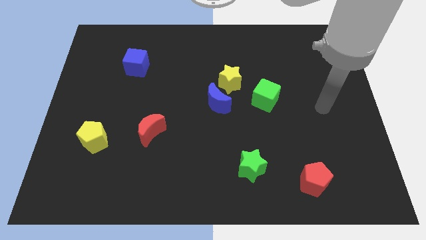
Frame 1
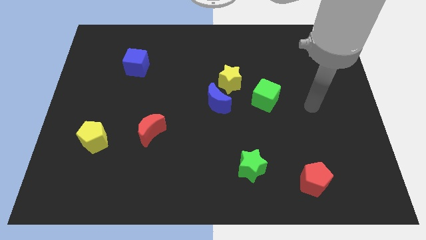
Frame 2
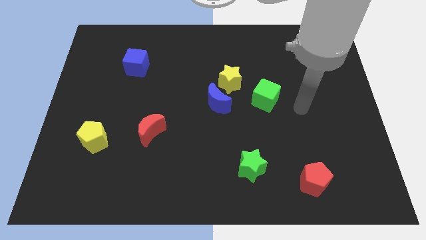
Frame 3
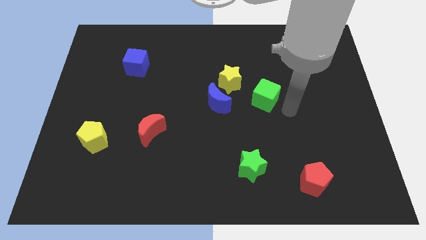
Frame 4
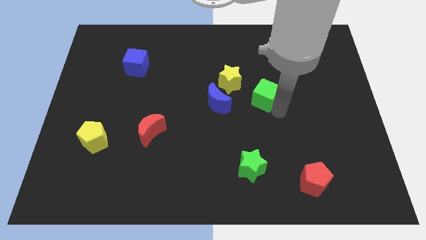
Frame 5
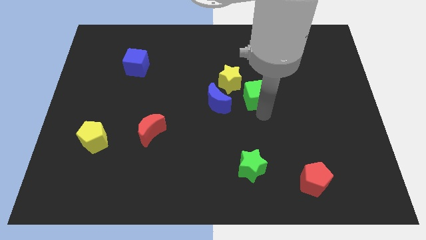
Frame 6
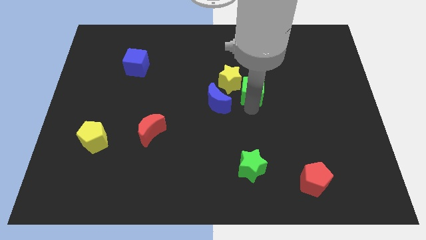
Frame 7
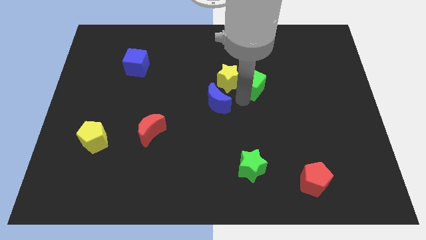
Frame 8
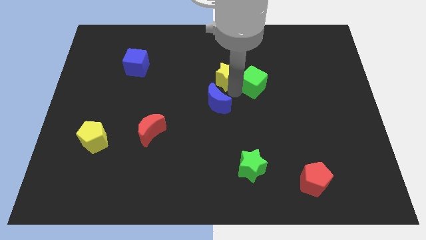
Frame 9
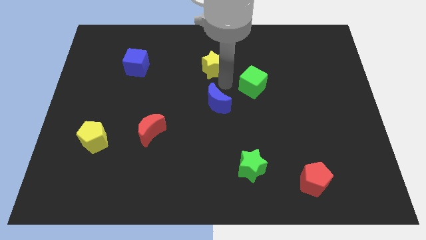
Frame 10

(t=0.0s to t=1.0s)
pull the blue moon apart from the yellow star

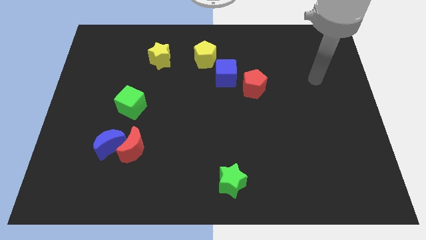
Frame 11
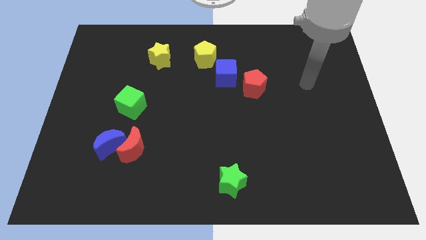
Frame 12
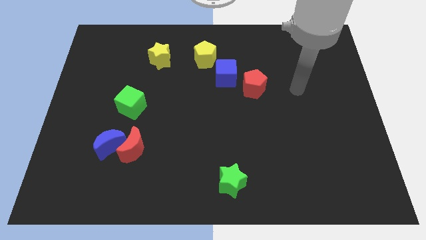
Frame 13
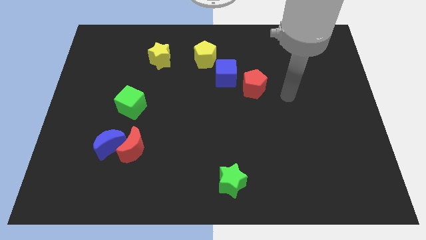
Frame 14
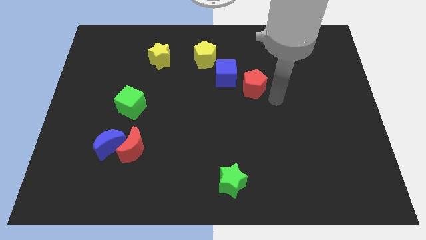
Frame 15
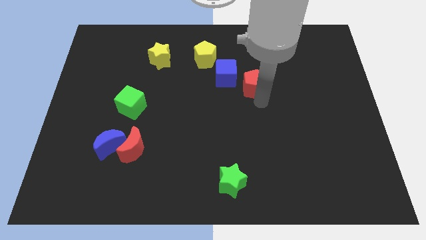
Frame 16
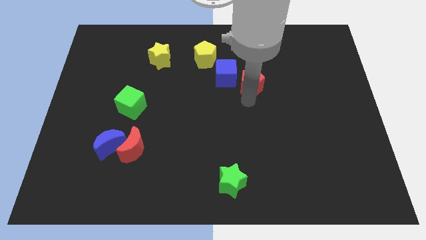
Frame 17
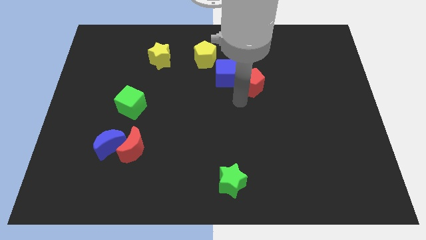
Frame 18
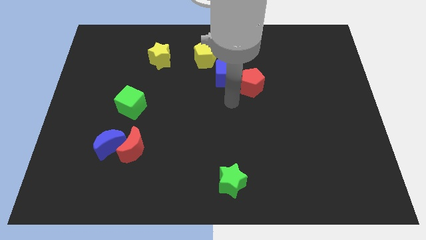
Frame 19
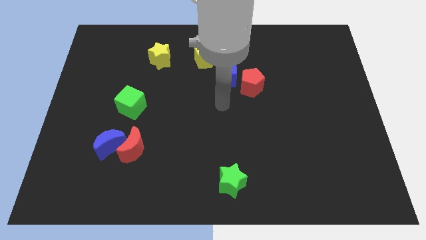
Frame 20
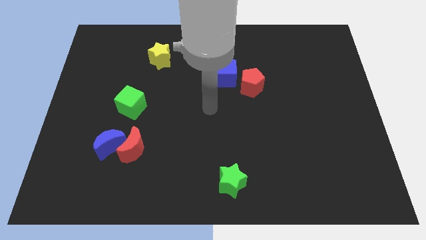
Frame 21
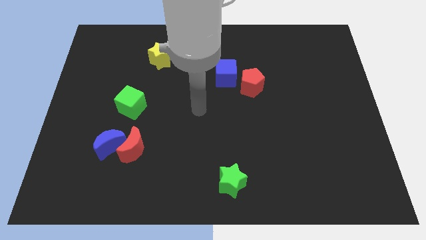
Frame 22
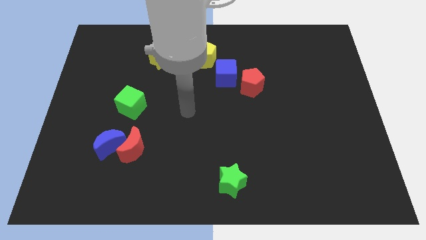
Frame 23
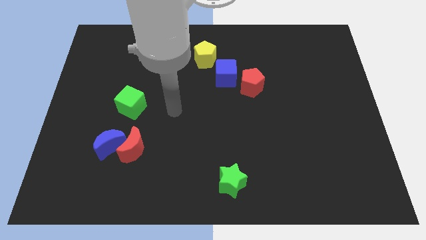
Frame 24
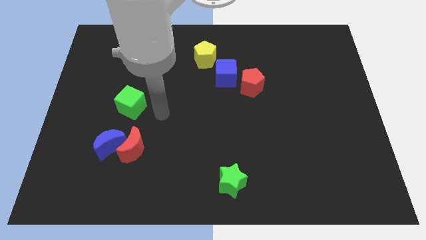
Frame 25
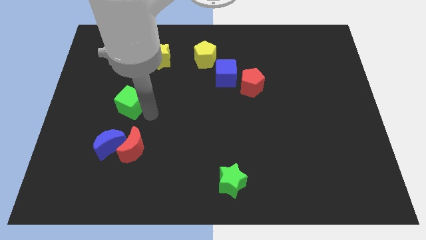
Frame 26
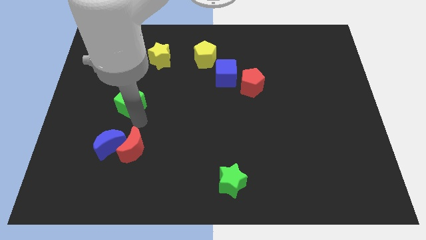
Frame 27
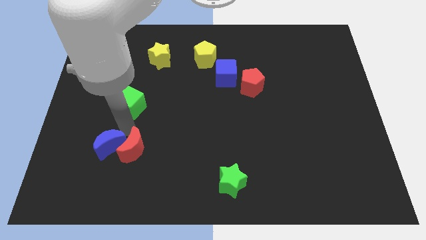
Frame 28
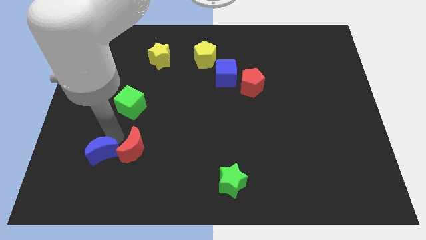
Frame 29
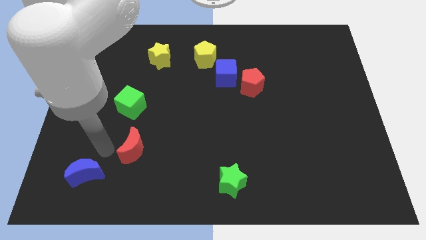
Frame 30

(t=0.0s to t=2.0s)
move the red moon away from the blue moon

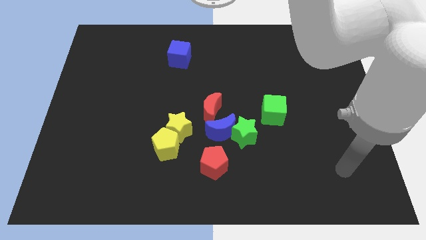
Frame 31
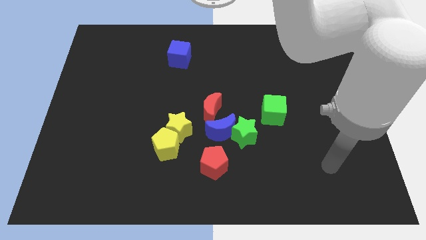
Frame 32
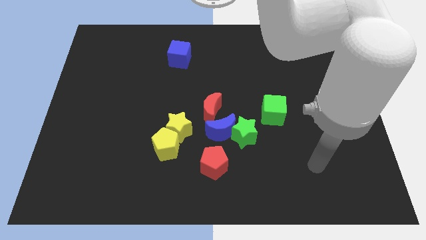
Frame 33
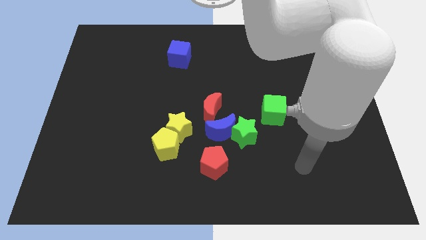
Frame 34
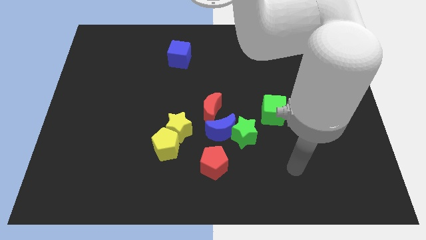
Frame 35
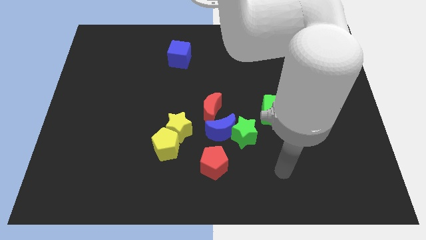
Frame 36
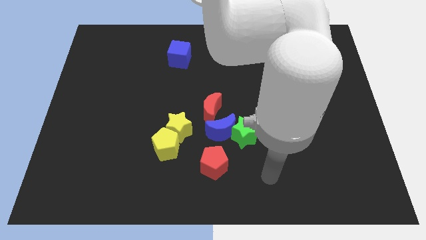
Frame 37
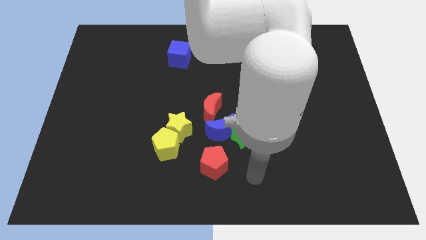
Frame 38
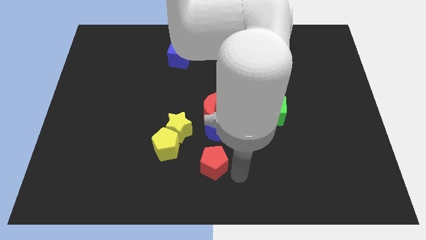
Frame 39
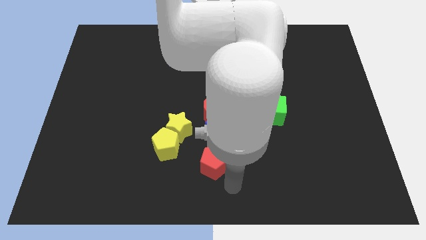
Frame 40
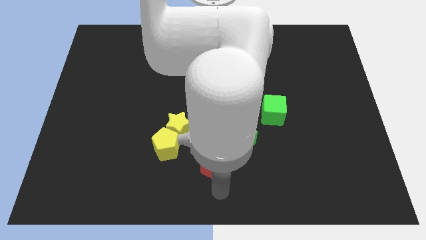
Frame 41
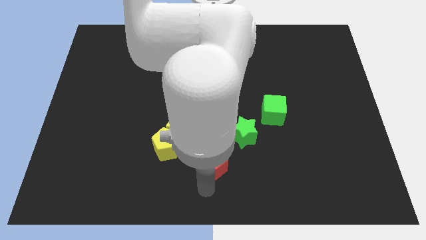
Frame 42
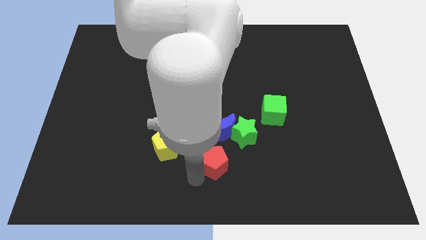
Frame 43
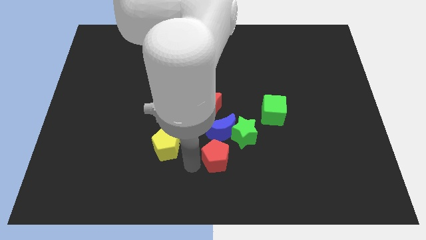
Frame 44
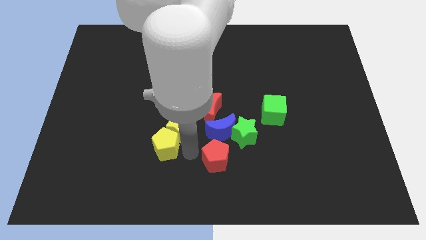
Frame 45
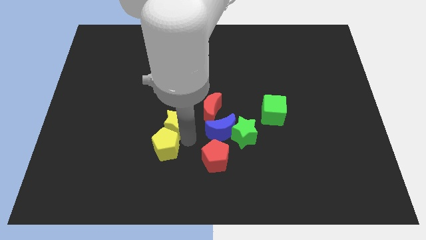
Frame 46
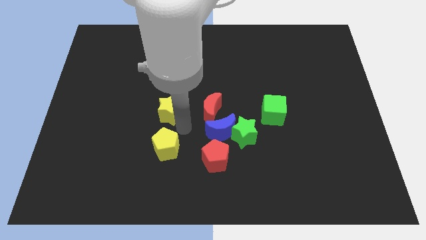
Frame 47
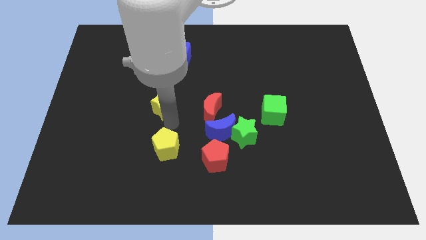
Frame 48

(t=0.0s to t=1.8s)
pull the yellow pentagon apart from the yellow star

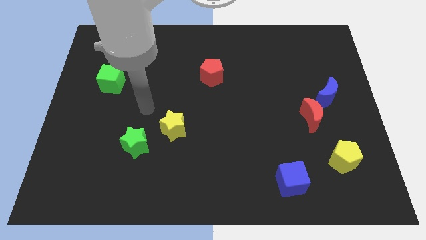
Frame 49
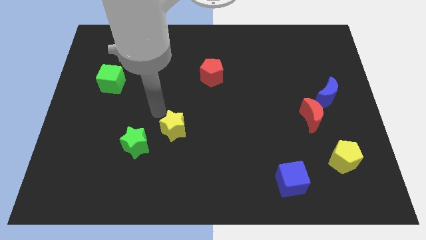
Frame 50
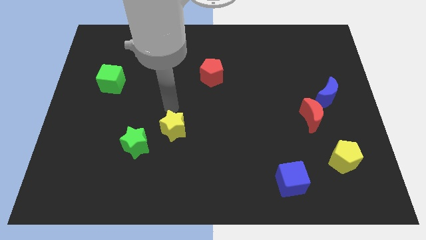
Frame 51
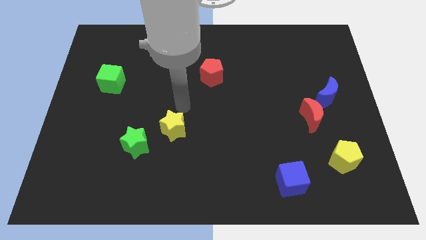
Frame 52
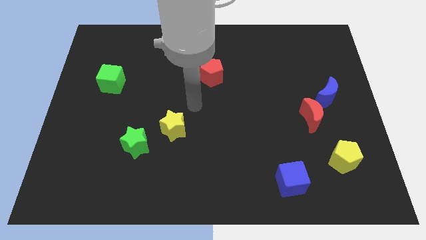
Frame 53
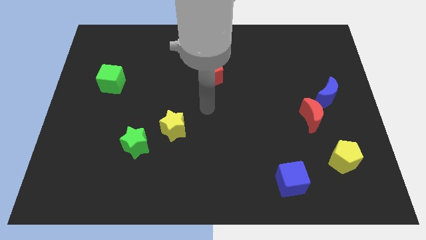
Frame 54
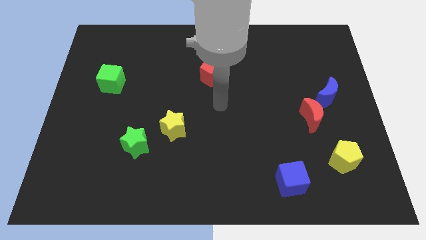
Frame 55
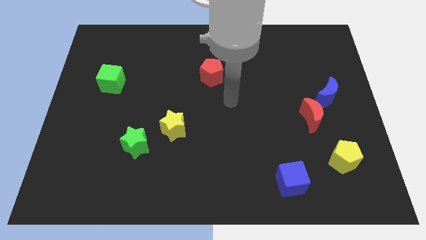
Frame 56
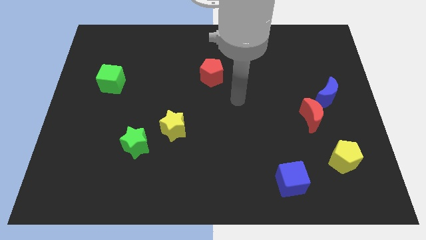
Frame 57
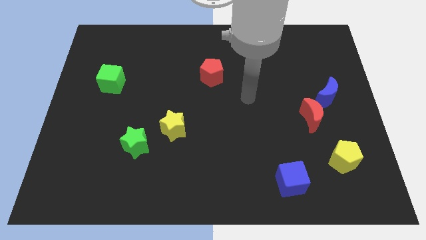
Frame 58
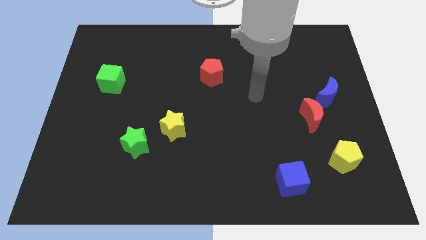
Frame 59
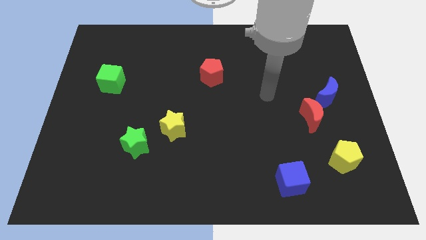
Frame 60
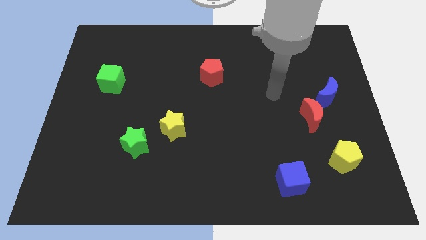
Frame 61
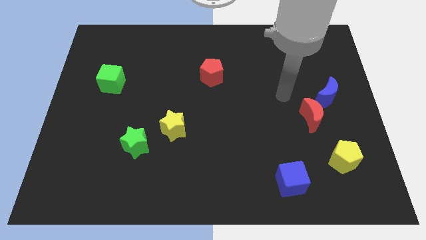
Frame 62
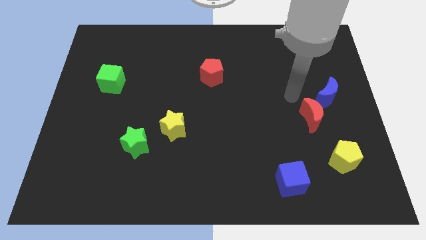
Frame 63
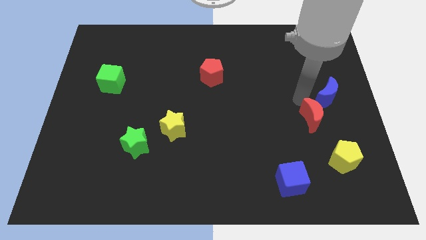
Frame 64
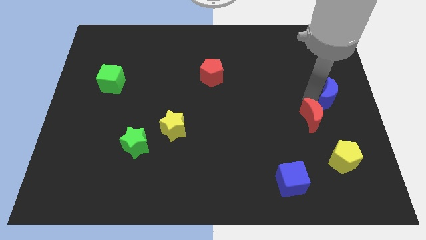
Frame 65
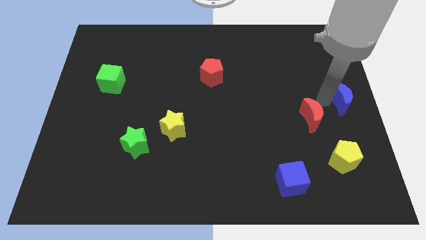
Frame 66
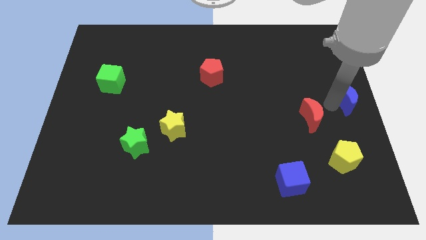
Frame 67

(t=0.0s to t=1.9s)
pull the red moon apart from the blue moon

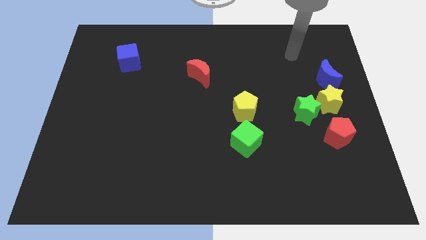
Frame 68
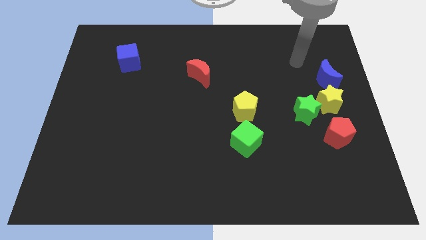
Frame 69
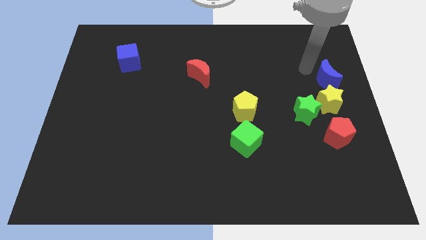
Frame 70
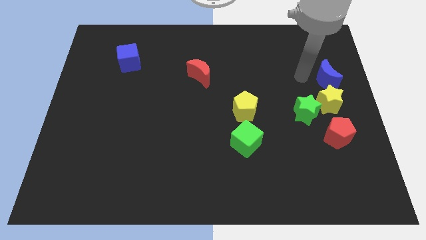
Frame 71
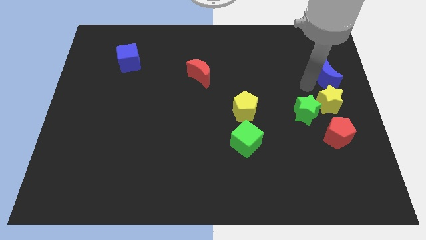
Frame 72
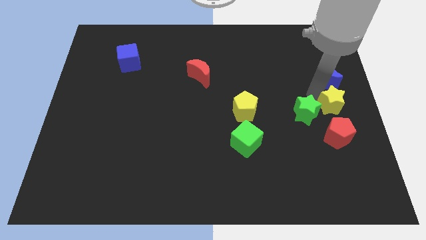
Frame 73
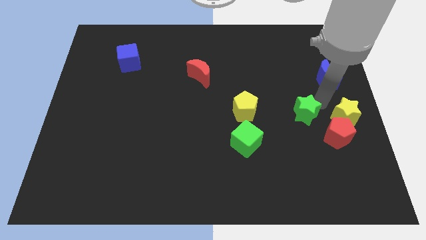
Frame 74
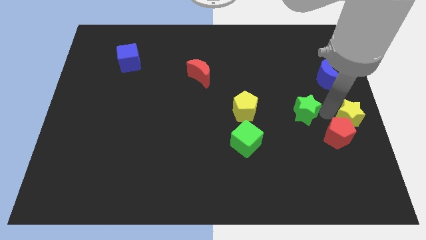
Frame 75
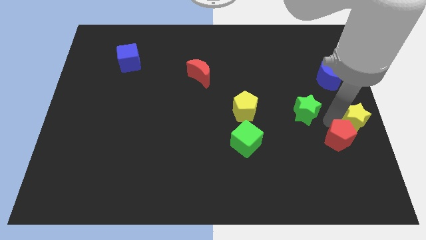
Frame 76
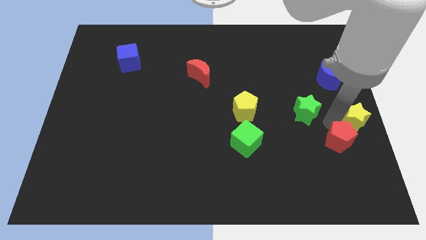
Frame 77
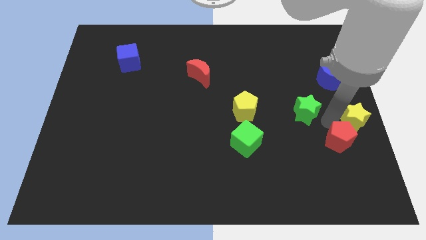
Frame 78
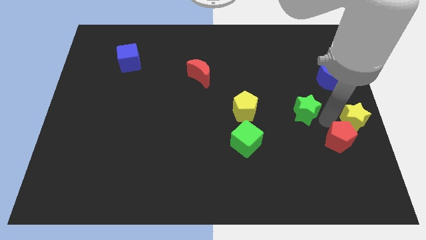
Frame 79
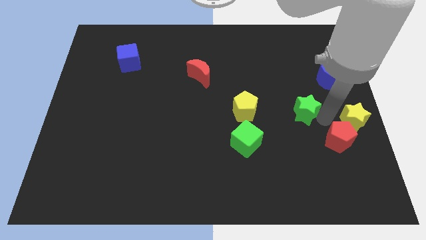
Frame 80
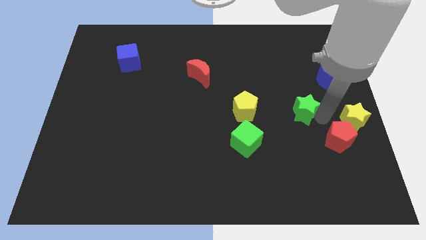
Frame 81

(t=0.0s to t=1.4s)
move the green star away from the yellow star and red pentagon

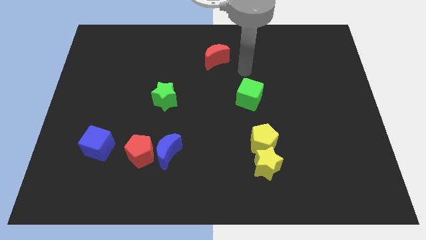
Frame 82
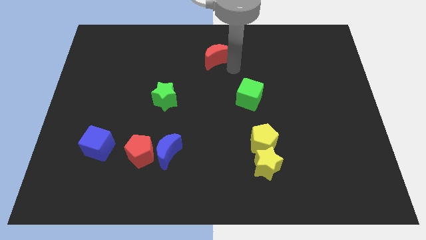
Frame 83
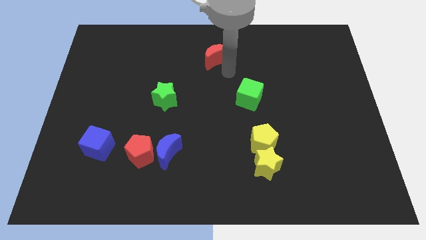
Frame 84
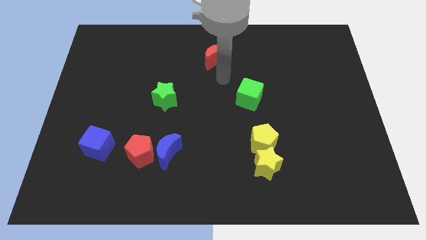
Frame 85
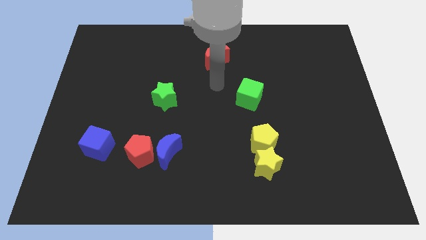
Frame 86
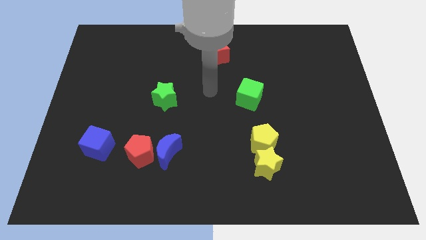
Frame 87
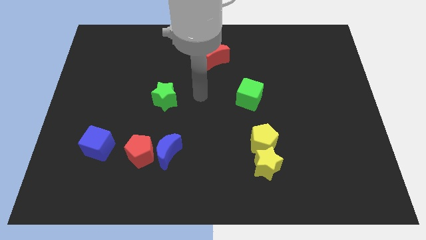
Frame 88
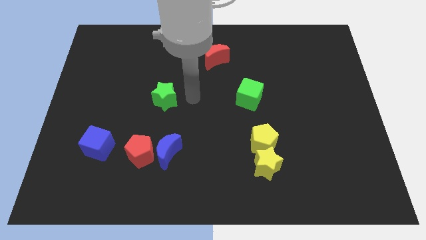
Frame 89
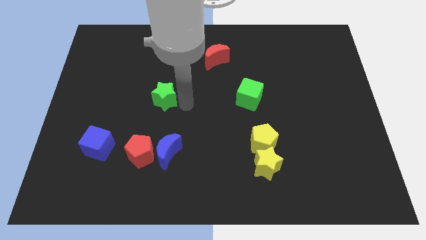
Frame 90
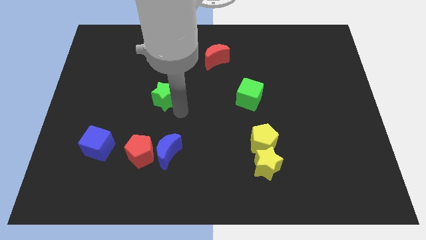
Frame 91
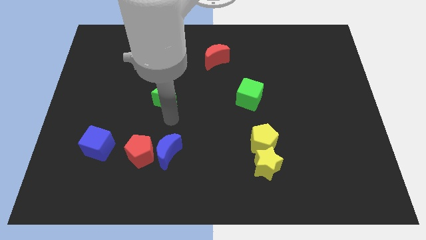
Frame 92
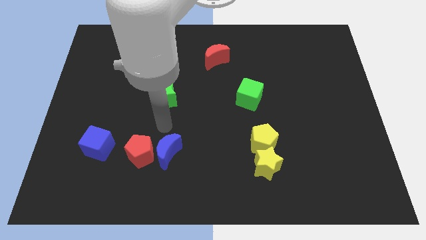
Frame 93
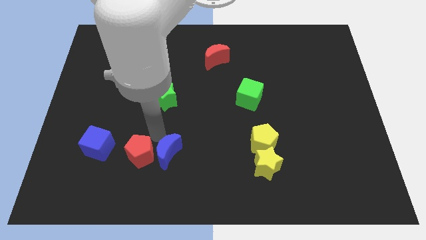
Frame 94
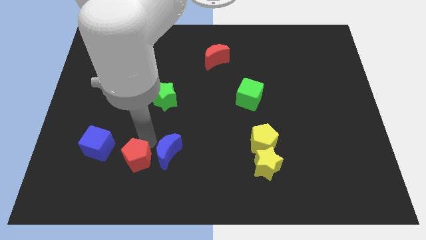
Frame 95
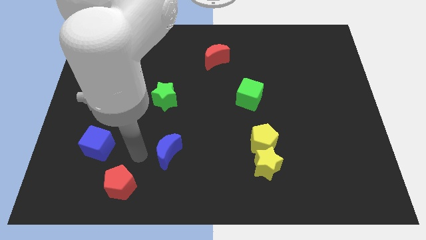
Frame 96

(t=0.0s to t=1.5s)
move the blue moon away from the red pentagon
